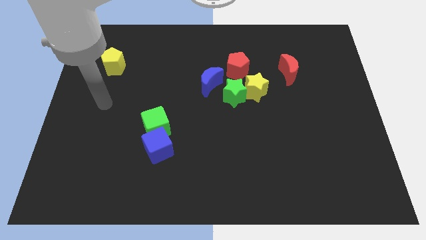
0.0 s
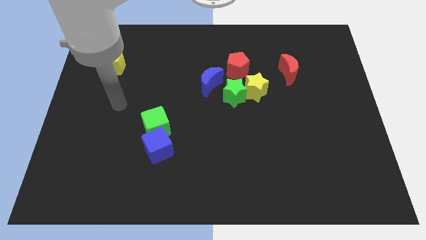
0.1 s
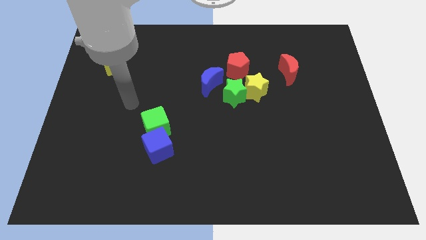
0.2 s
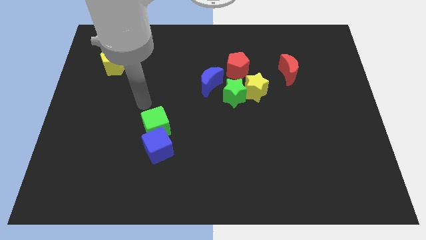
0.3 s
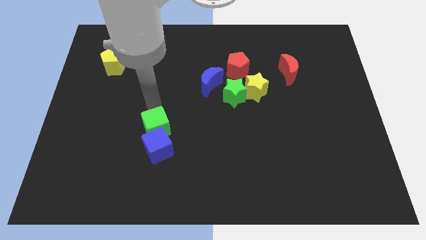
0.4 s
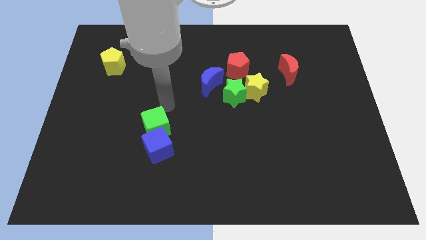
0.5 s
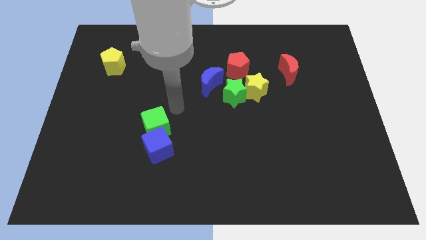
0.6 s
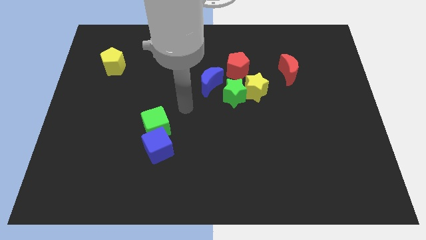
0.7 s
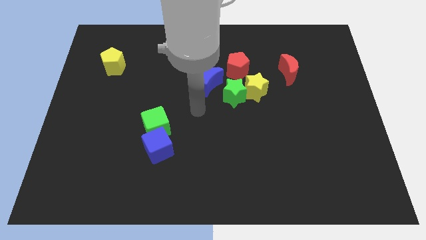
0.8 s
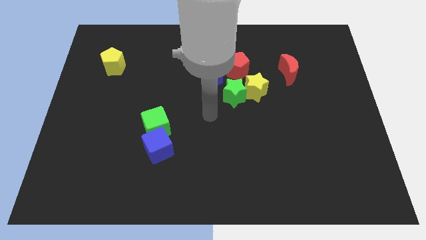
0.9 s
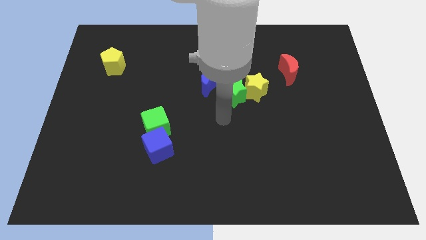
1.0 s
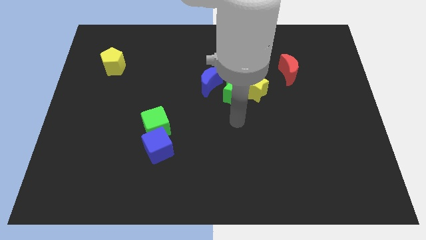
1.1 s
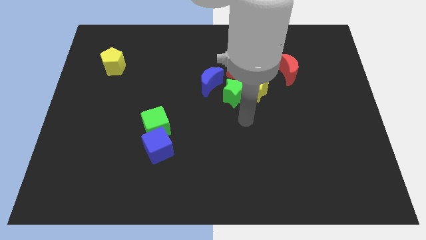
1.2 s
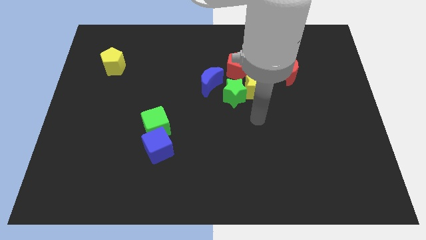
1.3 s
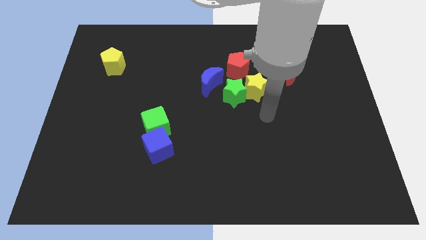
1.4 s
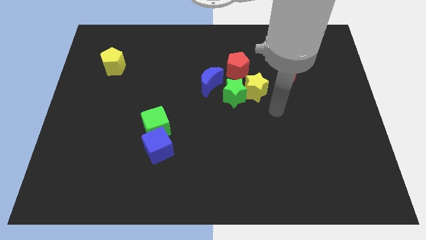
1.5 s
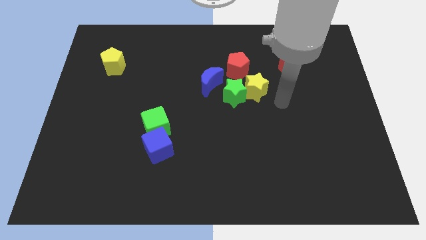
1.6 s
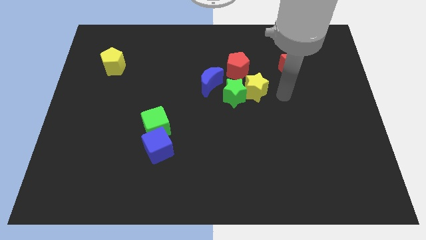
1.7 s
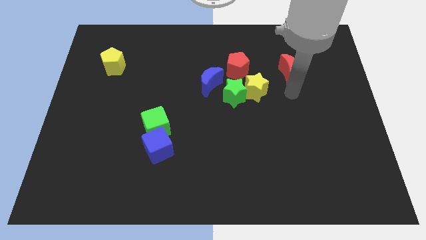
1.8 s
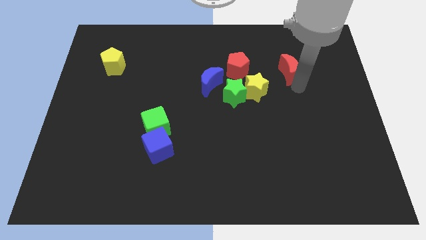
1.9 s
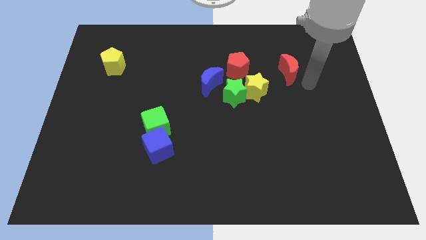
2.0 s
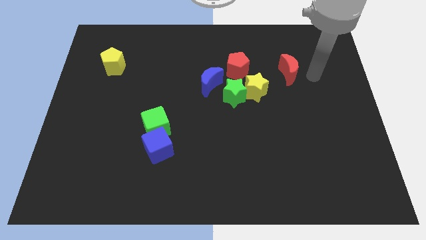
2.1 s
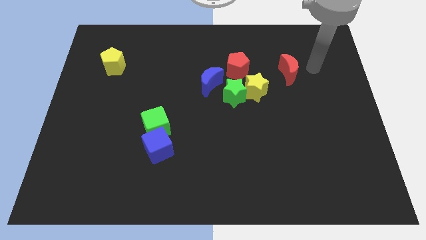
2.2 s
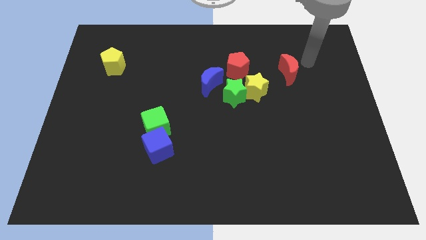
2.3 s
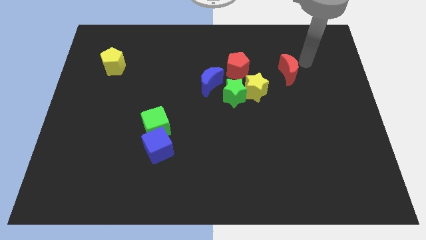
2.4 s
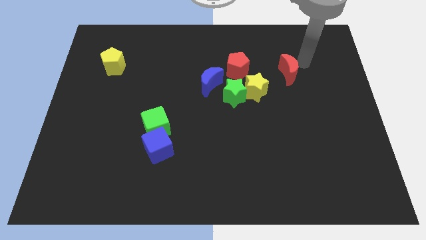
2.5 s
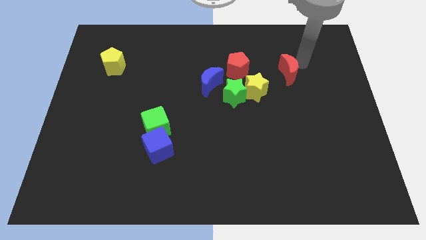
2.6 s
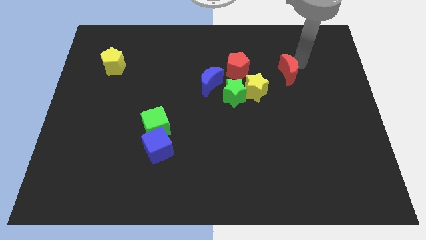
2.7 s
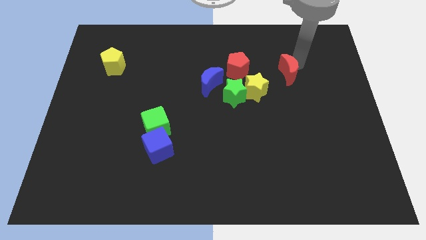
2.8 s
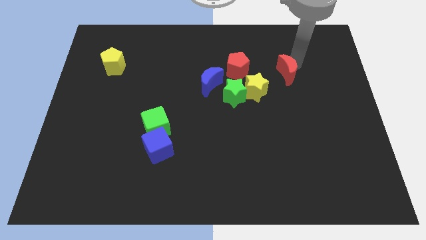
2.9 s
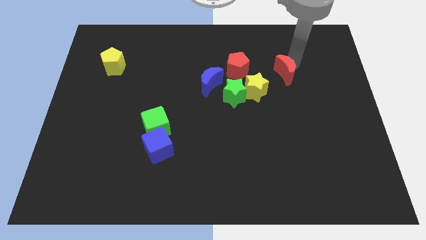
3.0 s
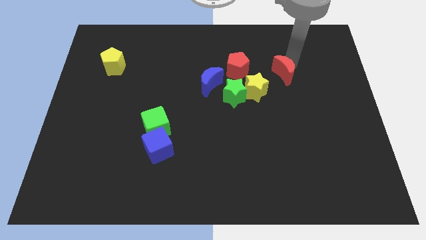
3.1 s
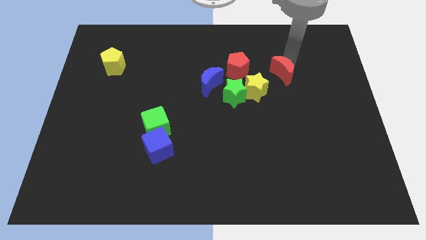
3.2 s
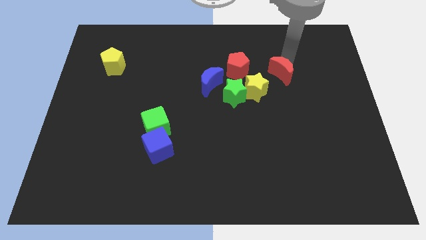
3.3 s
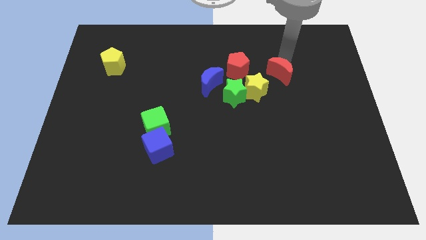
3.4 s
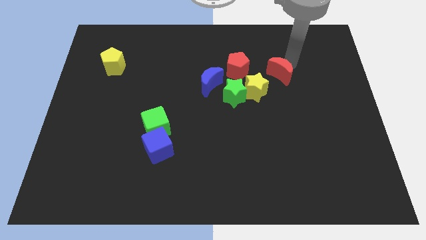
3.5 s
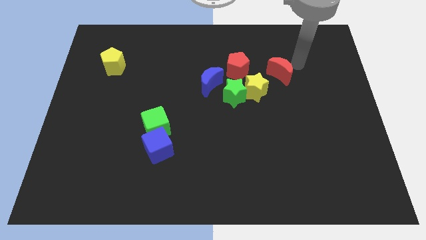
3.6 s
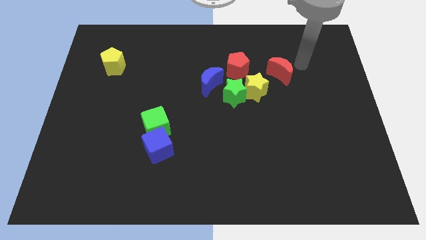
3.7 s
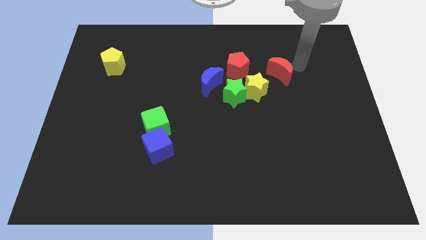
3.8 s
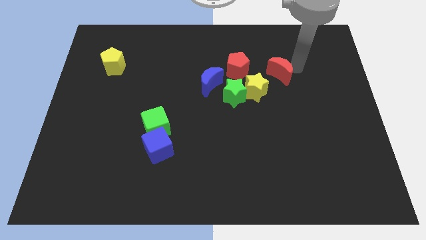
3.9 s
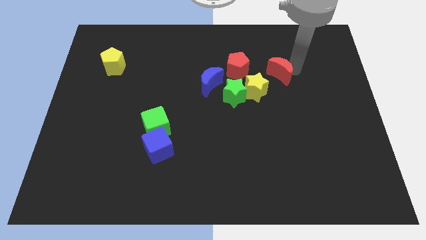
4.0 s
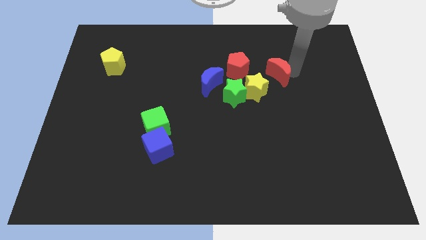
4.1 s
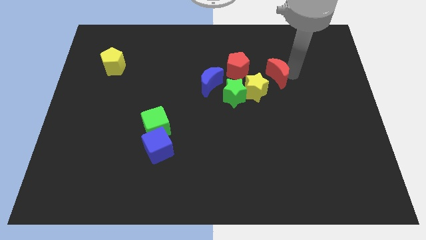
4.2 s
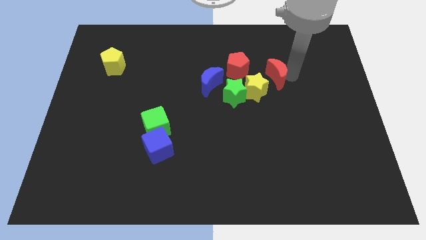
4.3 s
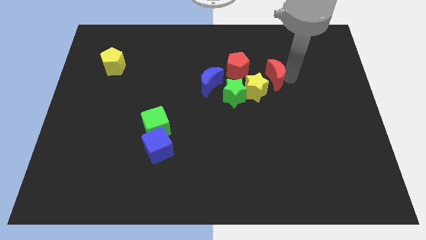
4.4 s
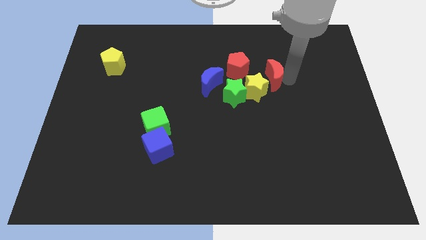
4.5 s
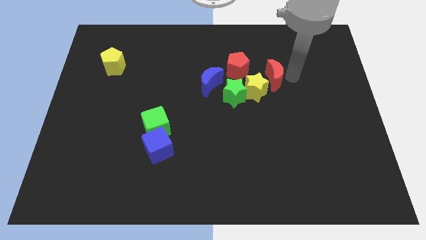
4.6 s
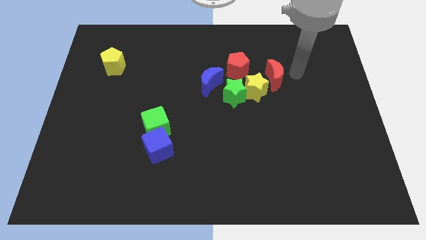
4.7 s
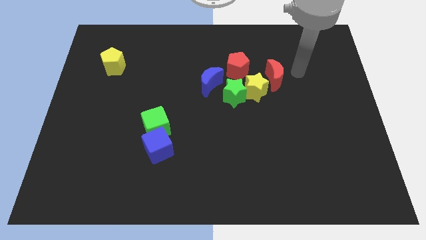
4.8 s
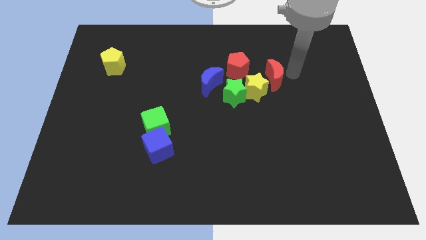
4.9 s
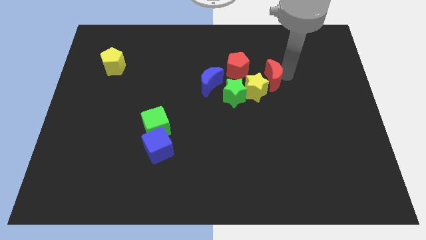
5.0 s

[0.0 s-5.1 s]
move the red moon right of the blue moon

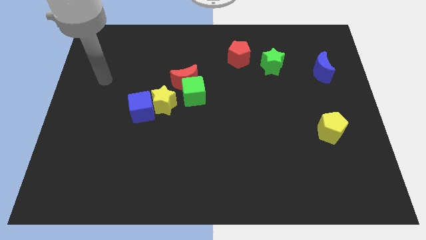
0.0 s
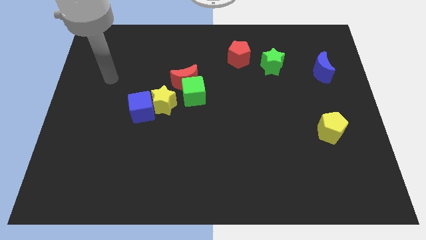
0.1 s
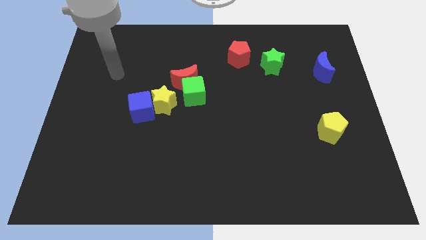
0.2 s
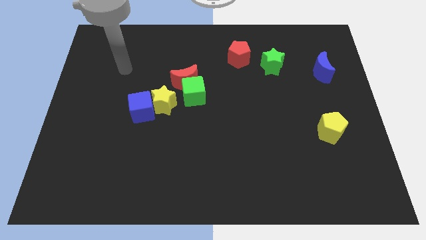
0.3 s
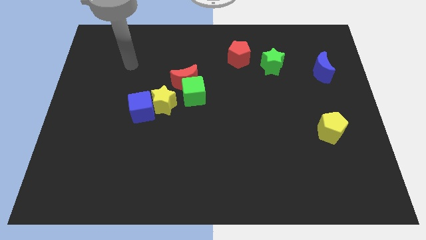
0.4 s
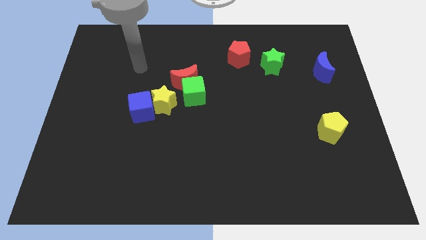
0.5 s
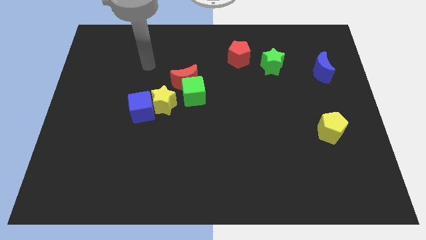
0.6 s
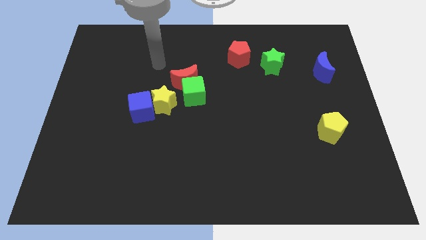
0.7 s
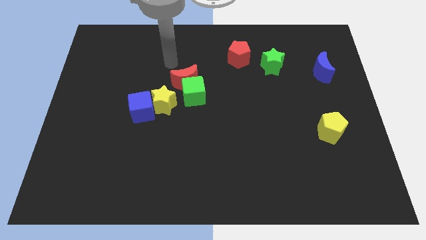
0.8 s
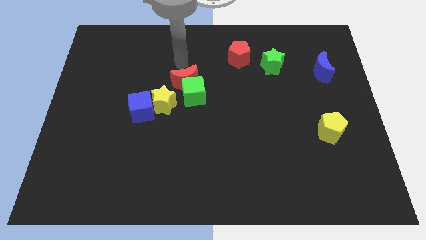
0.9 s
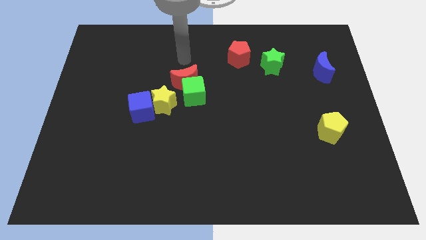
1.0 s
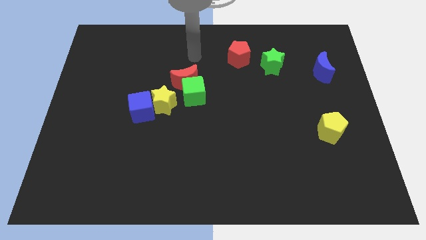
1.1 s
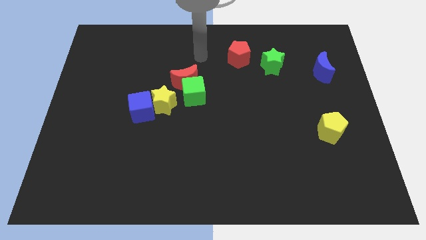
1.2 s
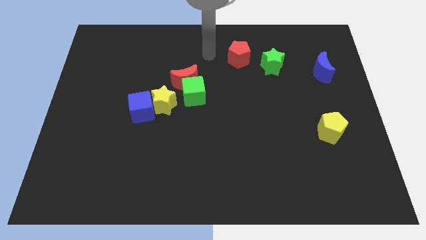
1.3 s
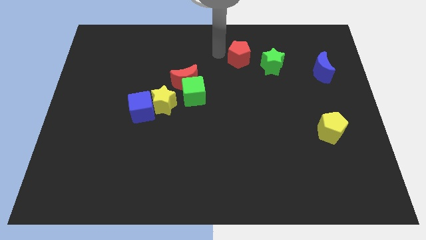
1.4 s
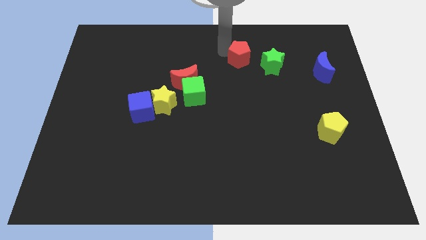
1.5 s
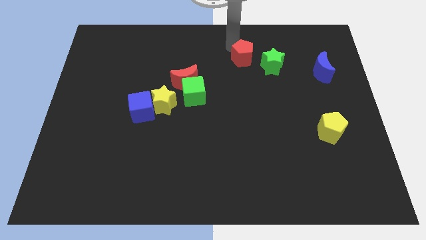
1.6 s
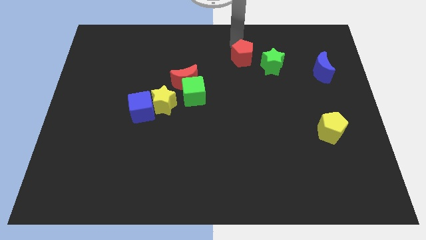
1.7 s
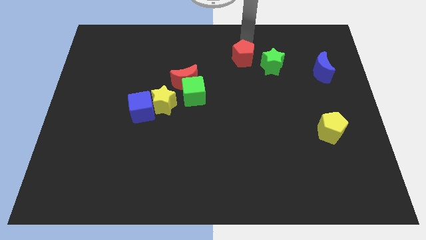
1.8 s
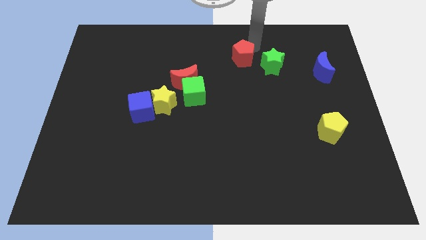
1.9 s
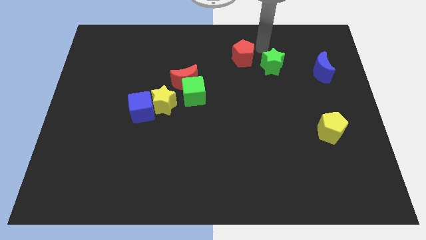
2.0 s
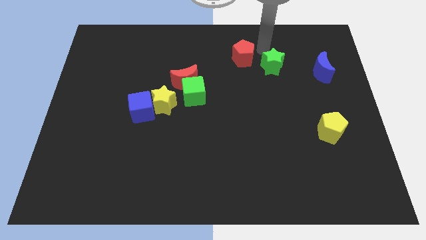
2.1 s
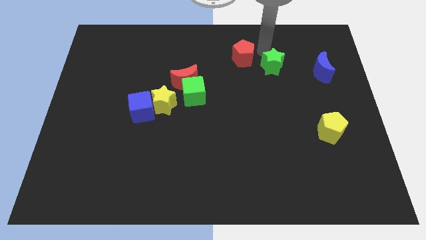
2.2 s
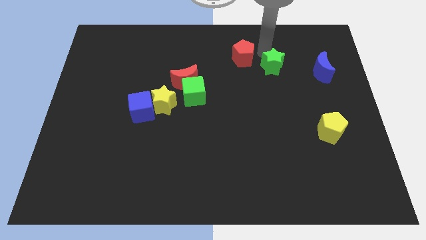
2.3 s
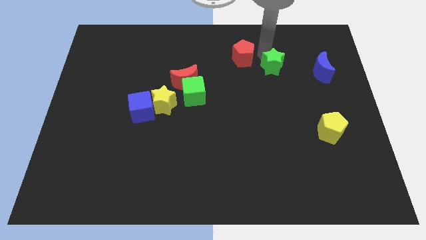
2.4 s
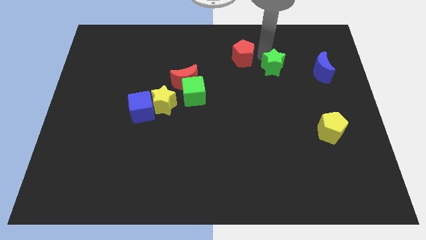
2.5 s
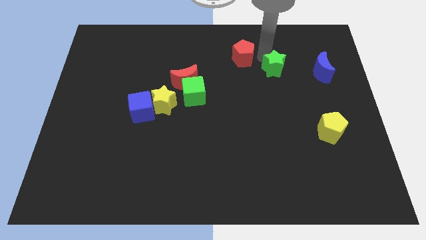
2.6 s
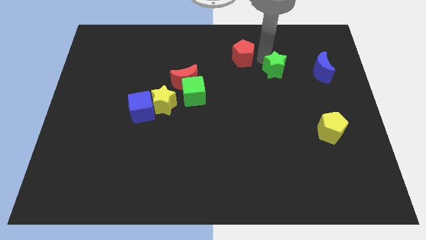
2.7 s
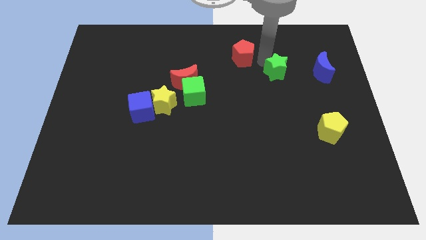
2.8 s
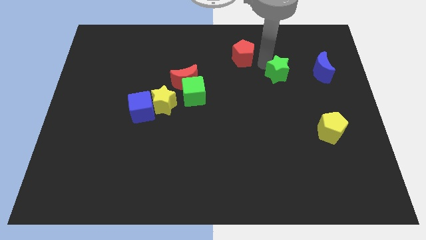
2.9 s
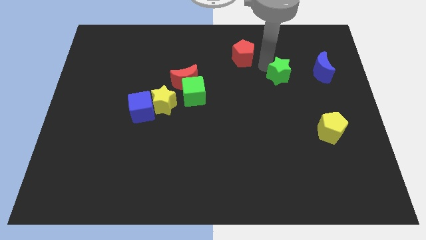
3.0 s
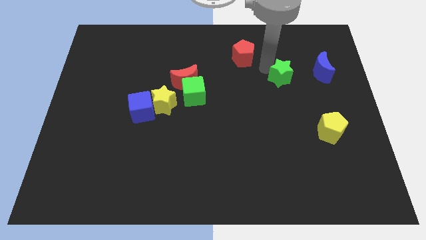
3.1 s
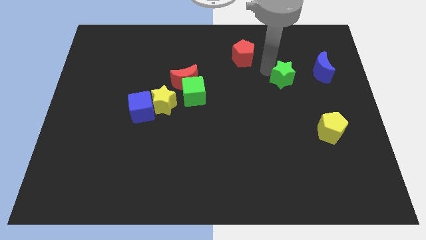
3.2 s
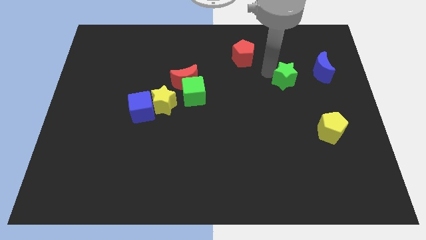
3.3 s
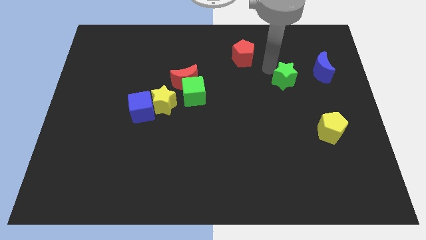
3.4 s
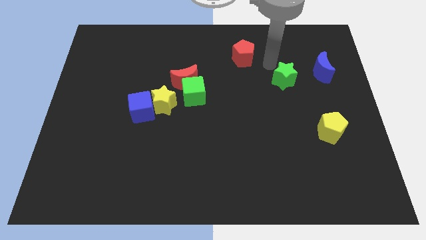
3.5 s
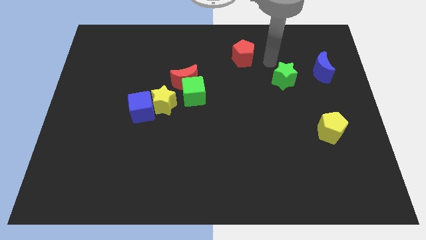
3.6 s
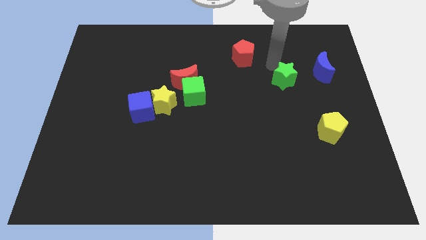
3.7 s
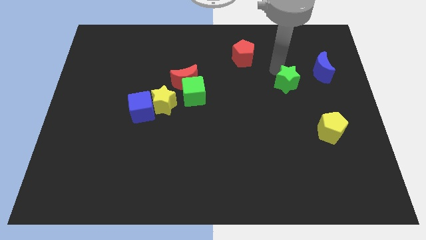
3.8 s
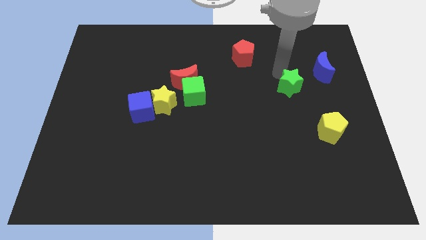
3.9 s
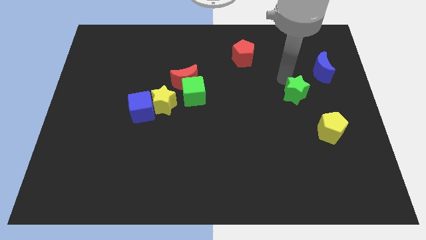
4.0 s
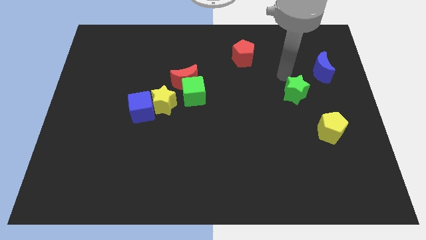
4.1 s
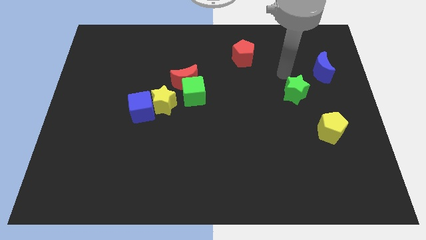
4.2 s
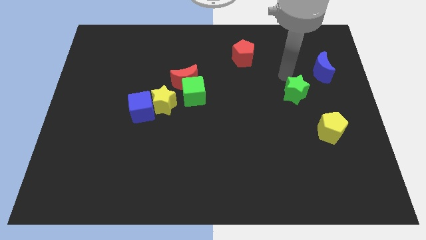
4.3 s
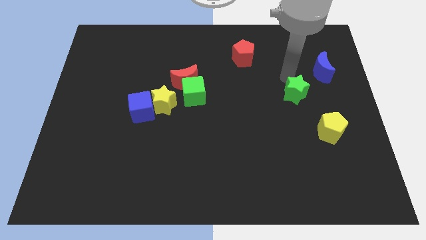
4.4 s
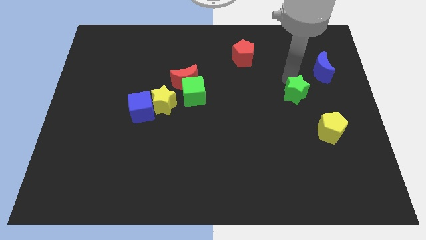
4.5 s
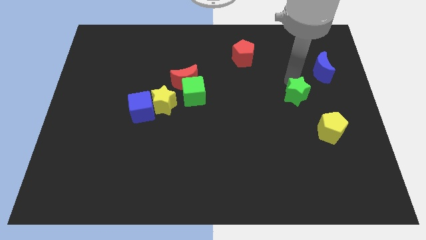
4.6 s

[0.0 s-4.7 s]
slide the green star diagonally up and to the left of the yellow pentagon
